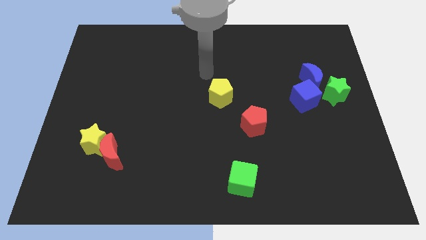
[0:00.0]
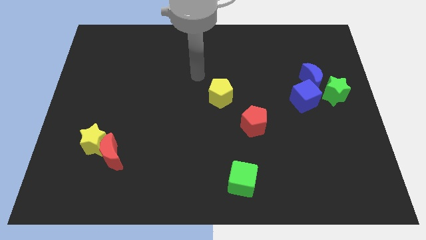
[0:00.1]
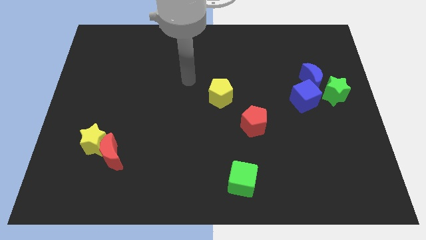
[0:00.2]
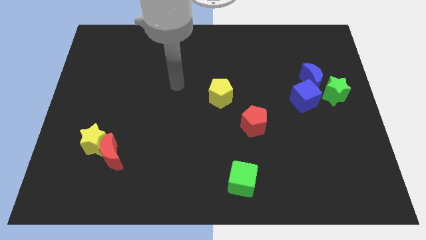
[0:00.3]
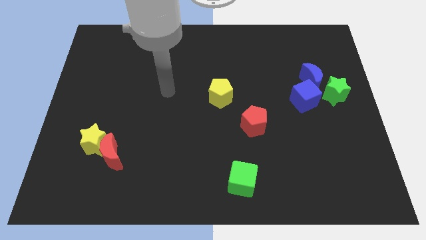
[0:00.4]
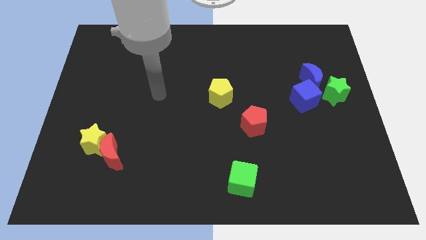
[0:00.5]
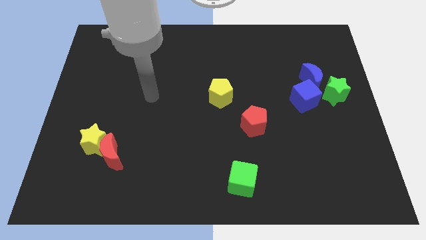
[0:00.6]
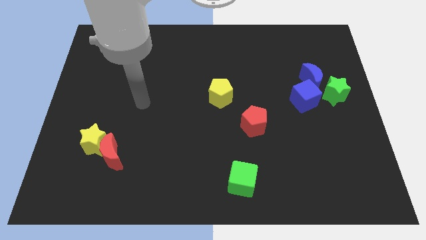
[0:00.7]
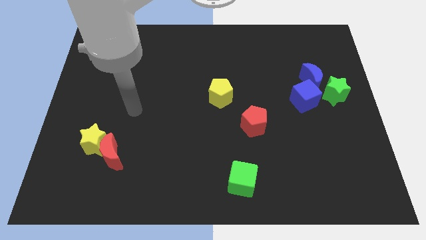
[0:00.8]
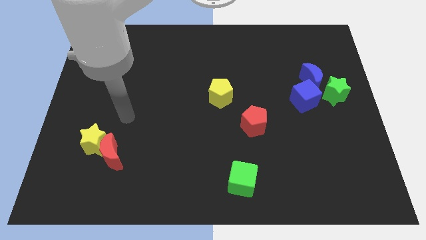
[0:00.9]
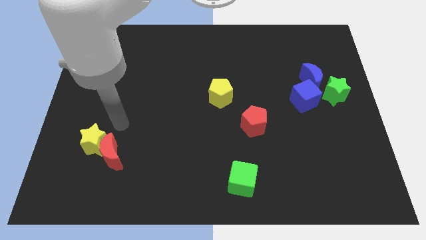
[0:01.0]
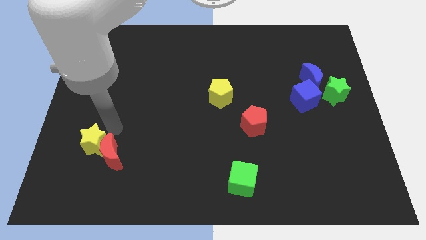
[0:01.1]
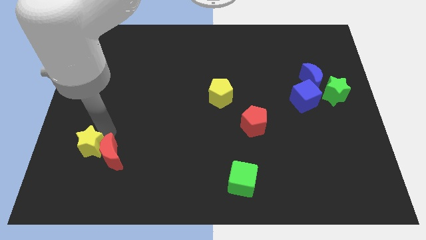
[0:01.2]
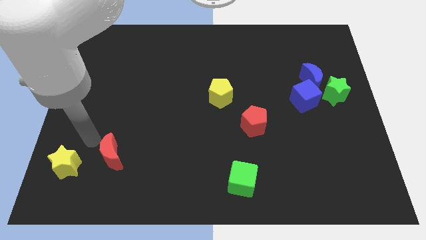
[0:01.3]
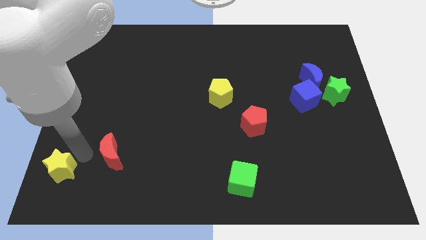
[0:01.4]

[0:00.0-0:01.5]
move the red moon away from the yellow star

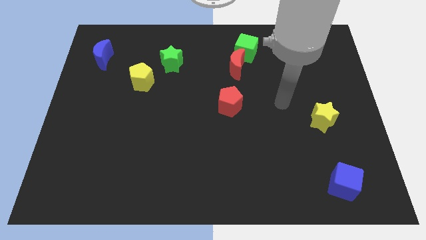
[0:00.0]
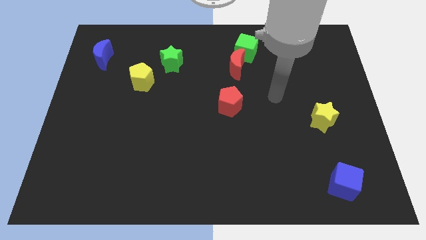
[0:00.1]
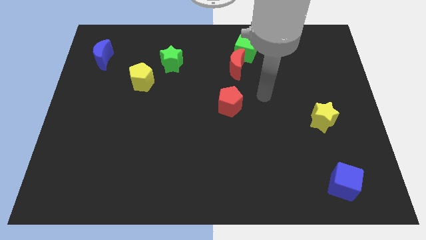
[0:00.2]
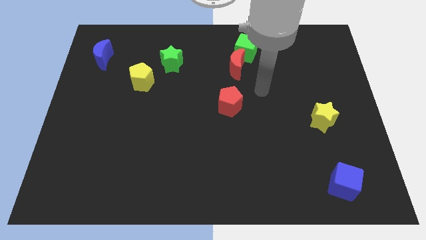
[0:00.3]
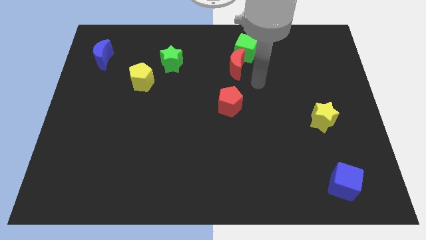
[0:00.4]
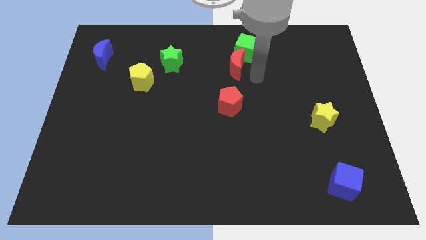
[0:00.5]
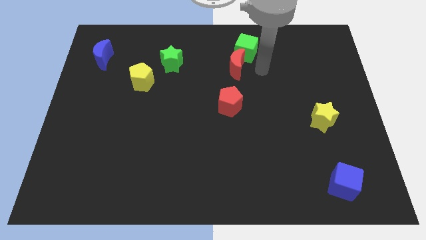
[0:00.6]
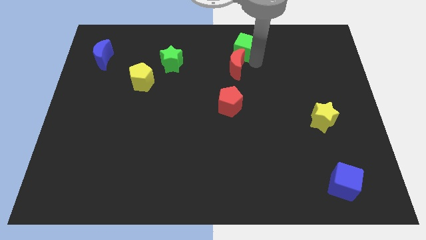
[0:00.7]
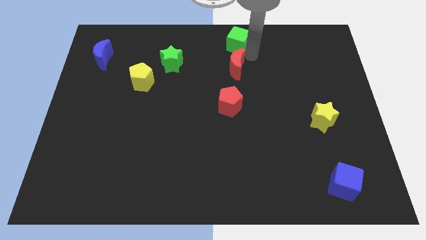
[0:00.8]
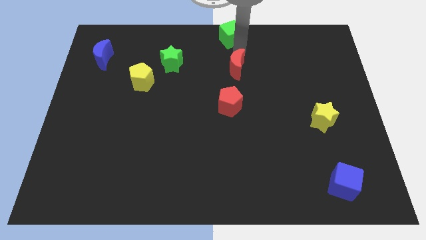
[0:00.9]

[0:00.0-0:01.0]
separate the red moon from the green cube

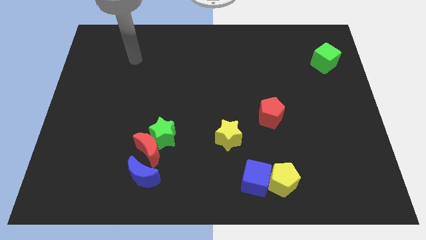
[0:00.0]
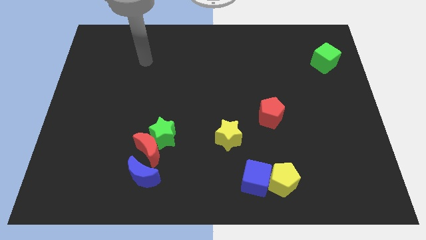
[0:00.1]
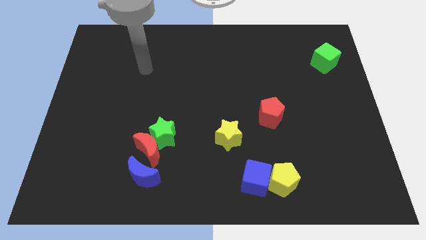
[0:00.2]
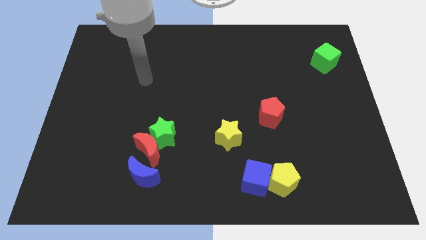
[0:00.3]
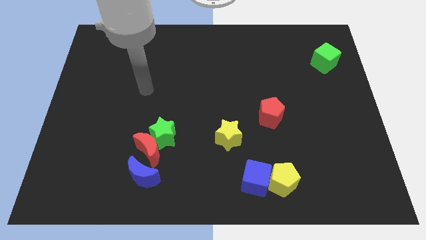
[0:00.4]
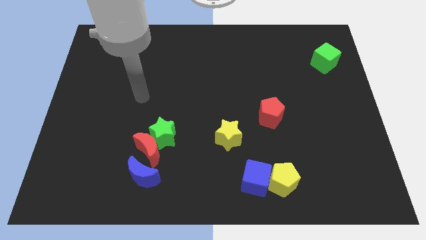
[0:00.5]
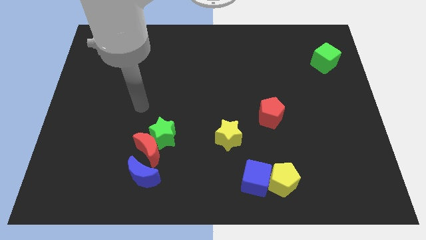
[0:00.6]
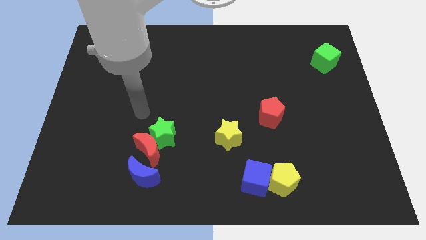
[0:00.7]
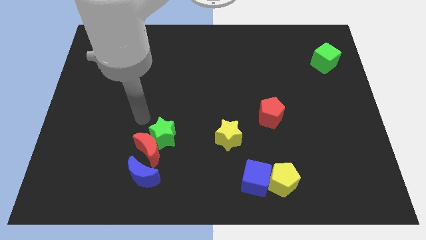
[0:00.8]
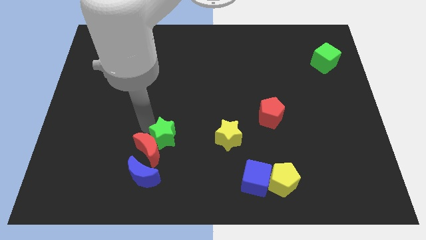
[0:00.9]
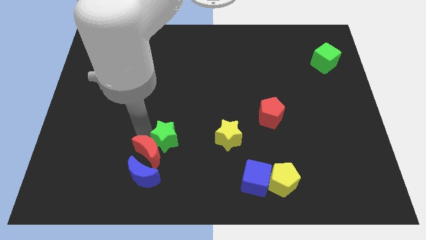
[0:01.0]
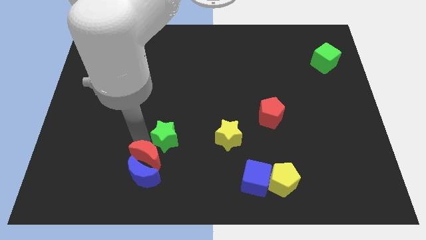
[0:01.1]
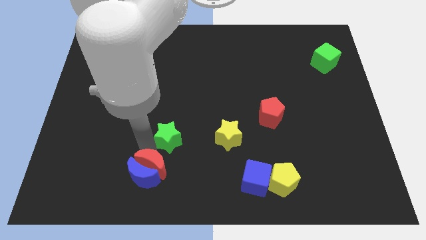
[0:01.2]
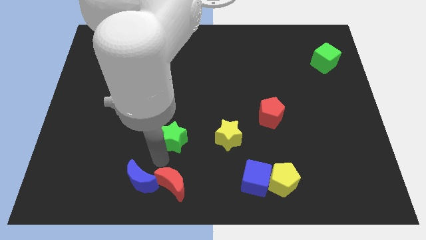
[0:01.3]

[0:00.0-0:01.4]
separate the green star from the red moon

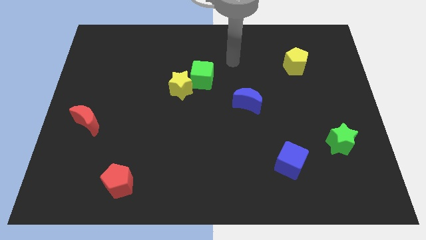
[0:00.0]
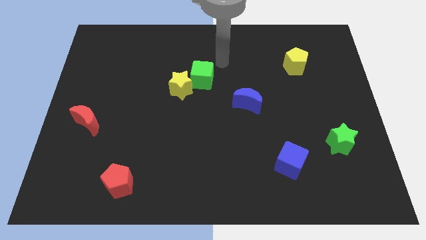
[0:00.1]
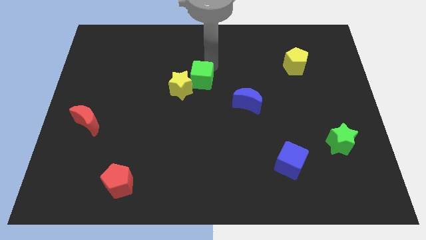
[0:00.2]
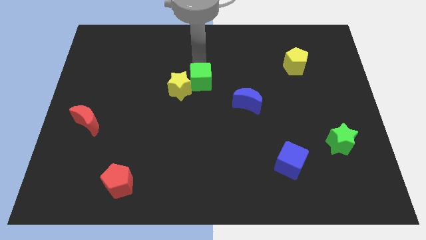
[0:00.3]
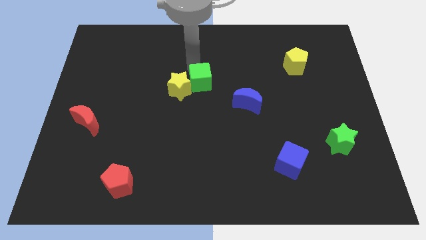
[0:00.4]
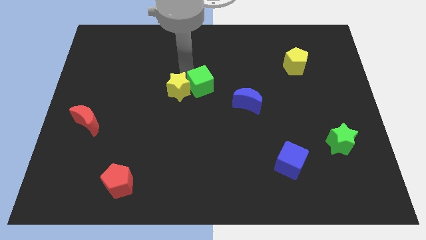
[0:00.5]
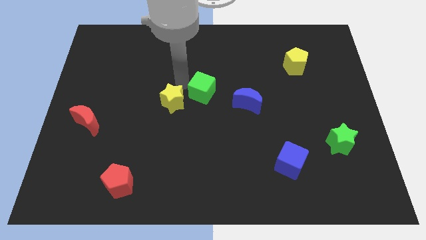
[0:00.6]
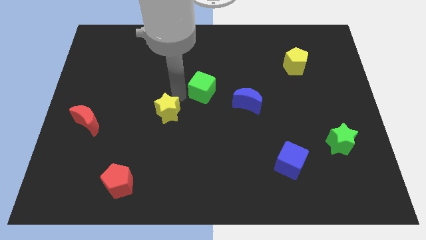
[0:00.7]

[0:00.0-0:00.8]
move the green cube away from the yellow star

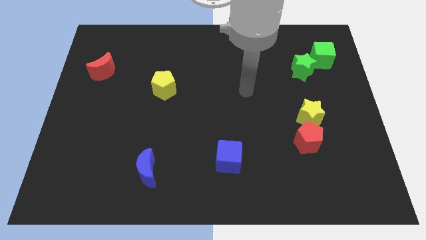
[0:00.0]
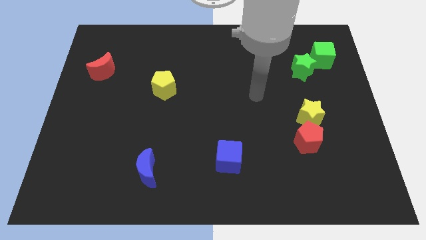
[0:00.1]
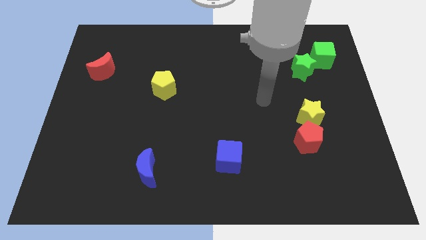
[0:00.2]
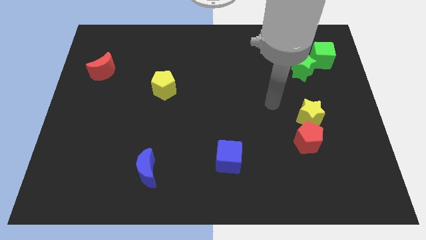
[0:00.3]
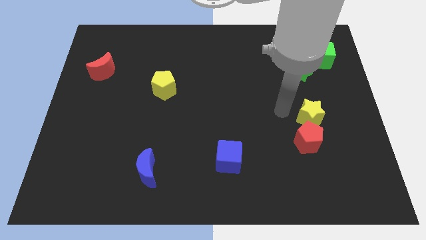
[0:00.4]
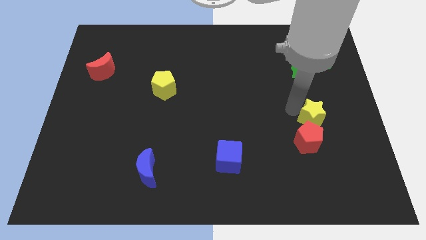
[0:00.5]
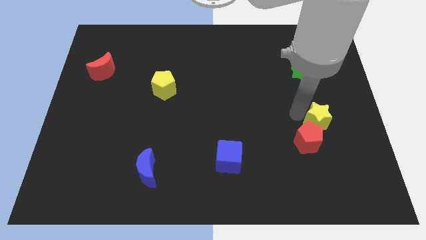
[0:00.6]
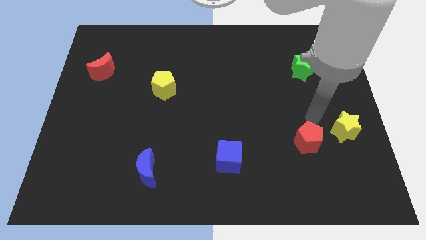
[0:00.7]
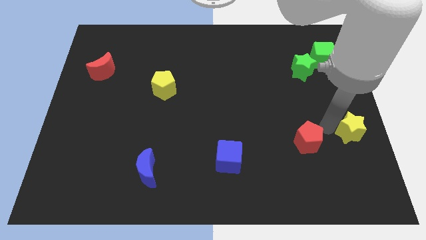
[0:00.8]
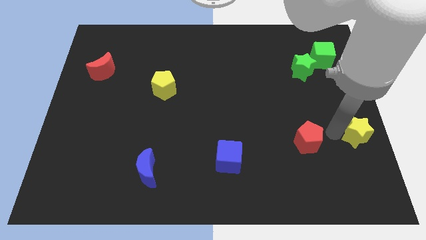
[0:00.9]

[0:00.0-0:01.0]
separate the red pentagon from the yellow star

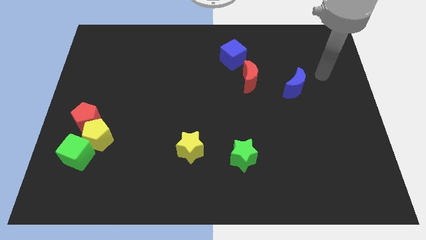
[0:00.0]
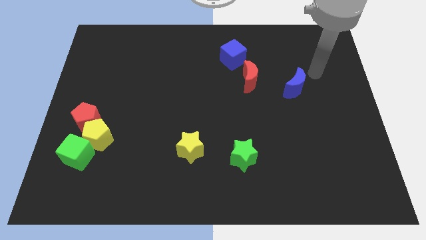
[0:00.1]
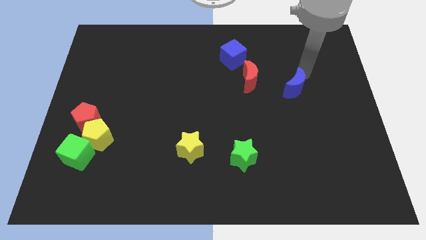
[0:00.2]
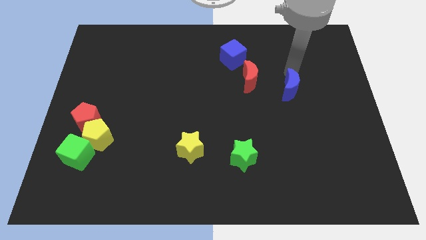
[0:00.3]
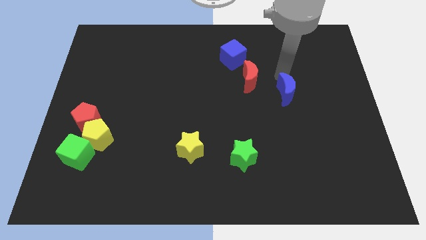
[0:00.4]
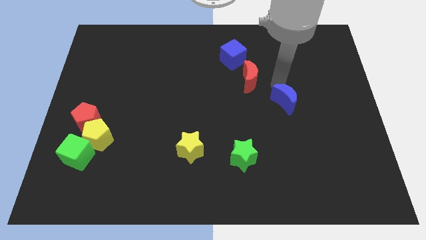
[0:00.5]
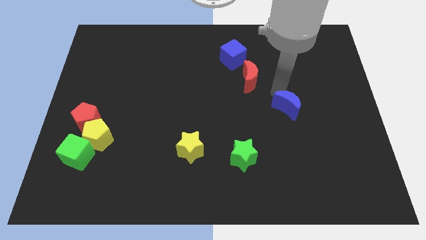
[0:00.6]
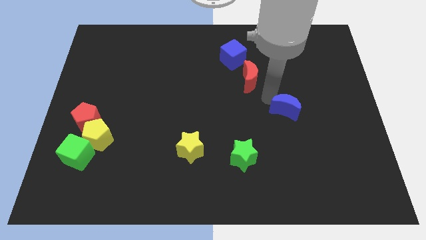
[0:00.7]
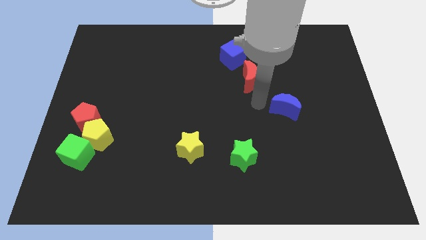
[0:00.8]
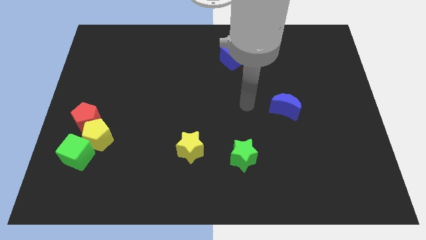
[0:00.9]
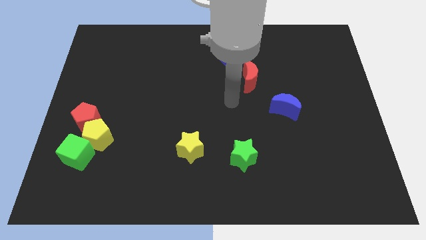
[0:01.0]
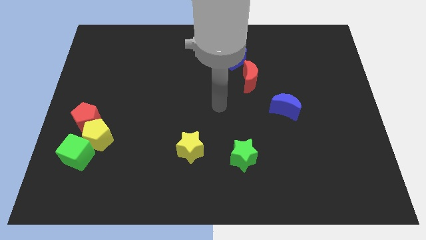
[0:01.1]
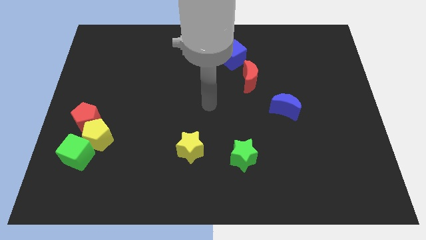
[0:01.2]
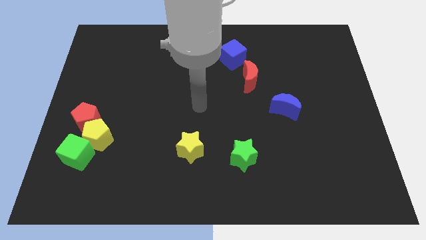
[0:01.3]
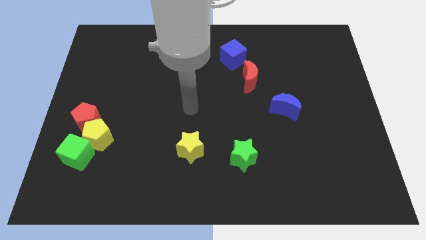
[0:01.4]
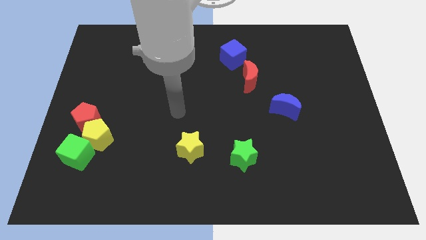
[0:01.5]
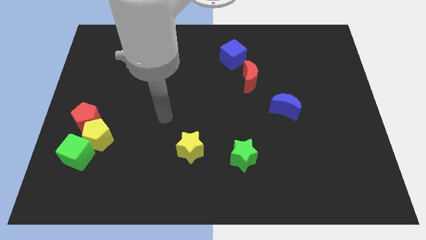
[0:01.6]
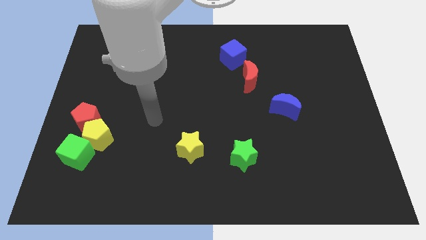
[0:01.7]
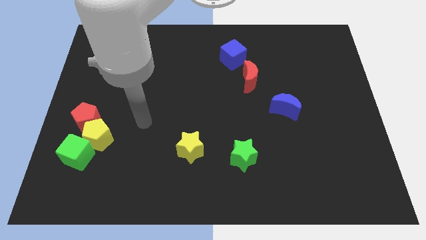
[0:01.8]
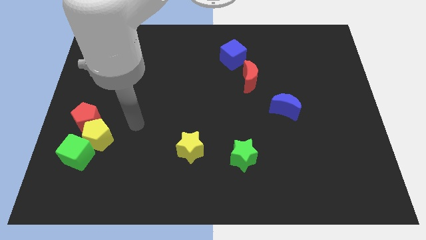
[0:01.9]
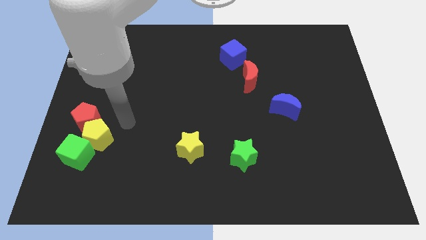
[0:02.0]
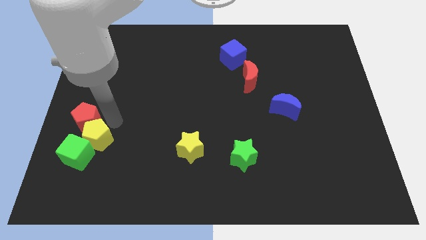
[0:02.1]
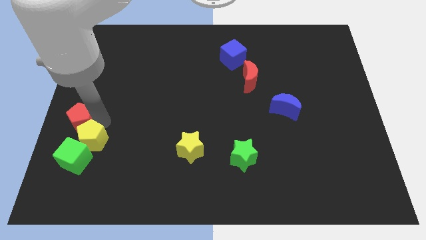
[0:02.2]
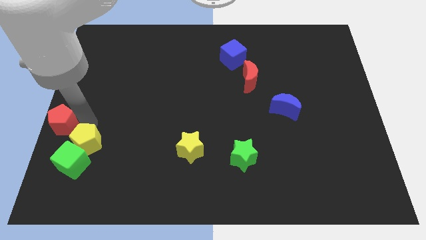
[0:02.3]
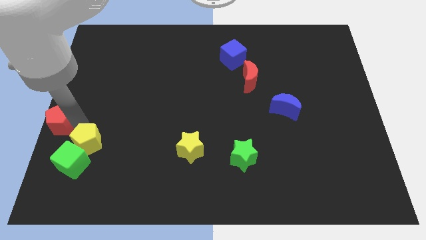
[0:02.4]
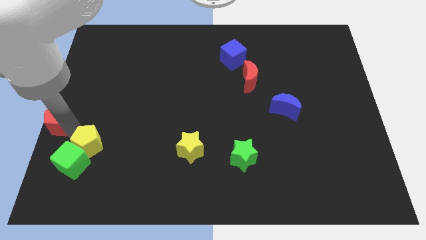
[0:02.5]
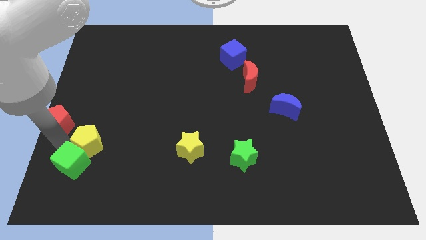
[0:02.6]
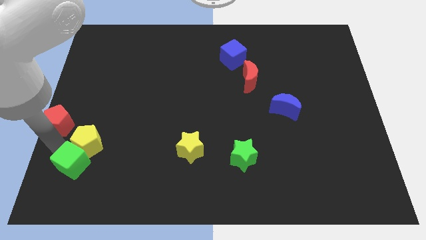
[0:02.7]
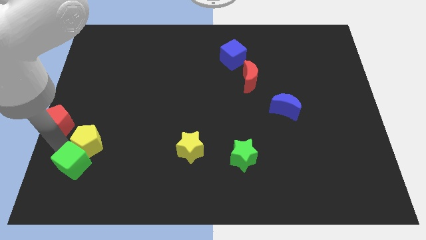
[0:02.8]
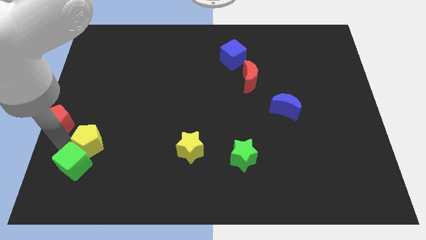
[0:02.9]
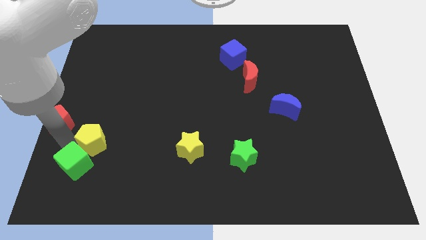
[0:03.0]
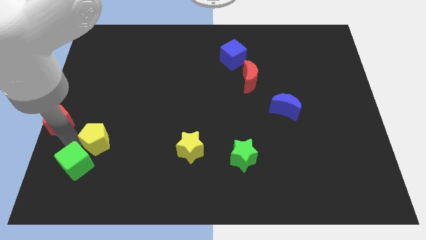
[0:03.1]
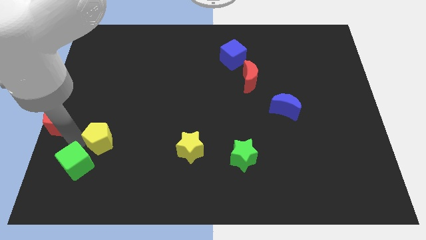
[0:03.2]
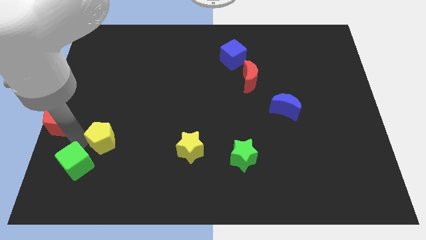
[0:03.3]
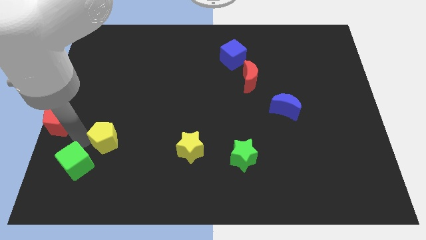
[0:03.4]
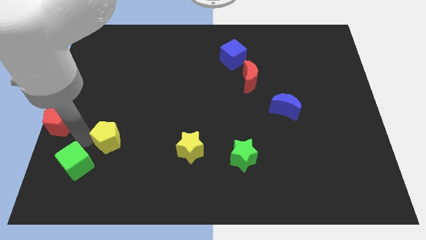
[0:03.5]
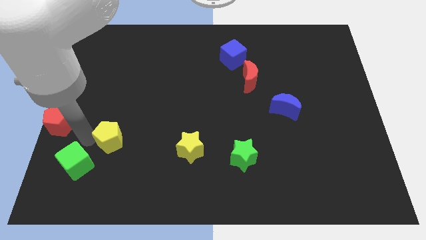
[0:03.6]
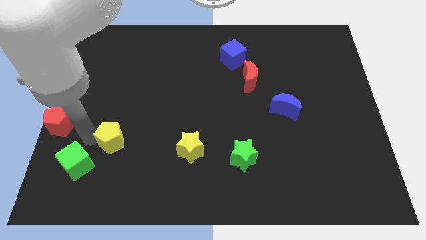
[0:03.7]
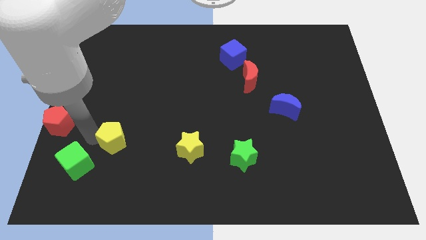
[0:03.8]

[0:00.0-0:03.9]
separate the yellow pentagon from the green cube and red pentagon
